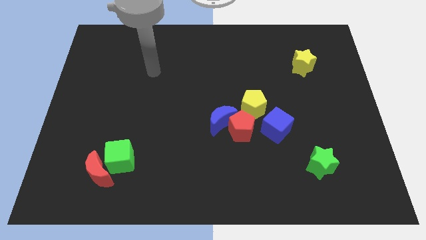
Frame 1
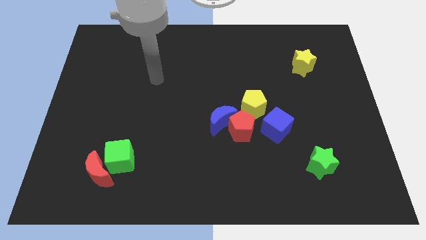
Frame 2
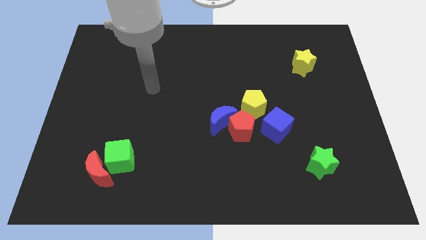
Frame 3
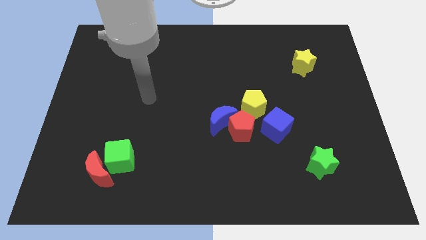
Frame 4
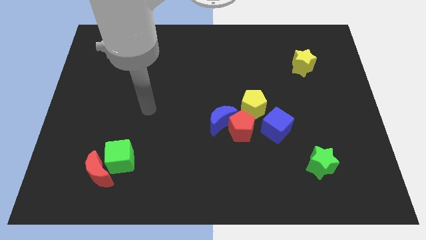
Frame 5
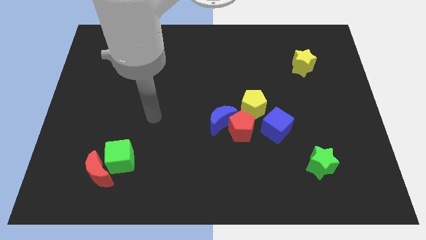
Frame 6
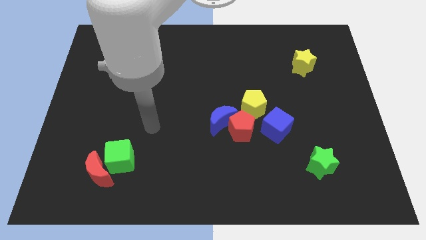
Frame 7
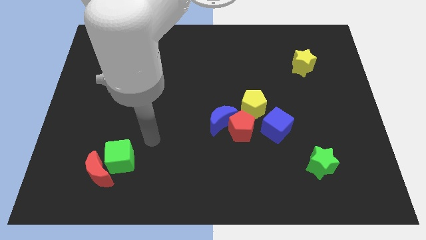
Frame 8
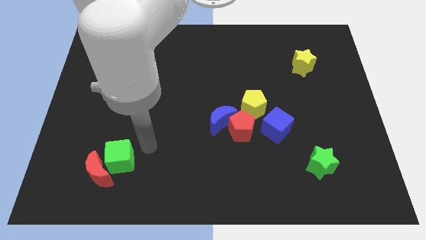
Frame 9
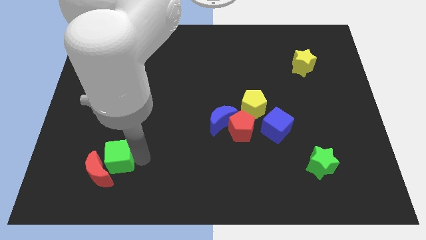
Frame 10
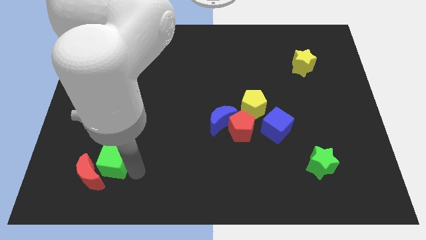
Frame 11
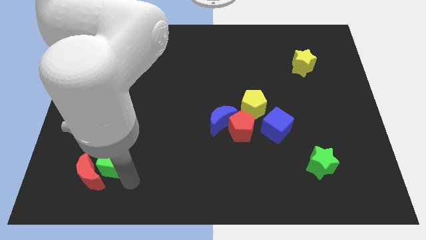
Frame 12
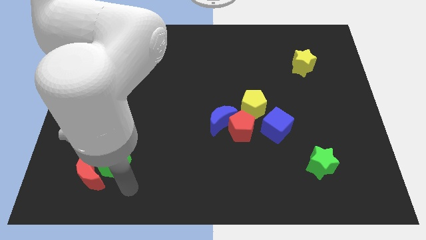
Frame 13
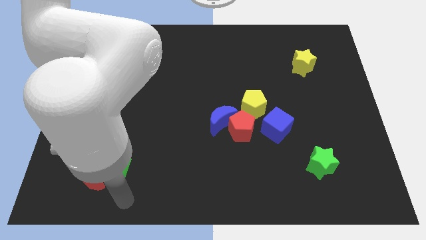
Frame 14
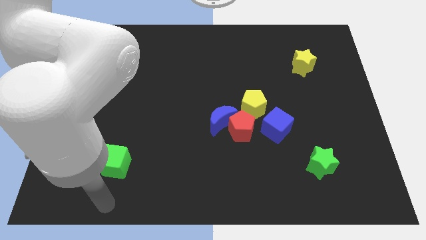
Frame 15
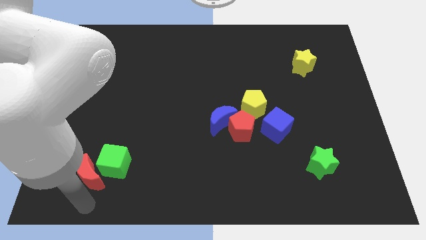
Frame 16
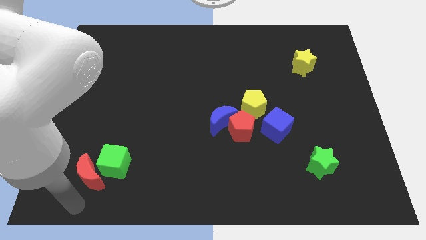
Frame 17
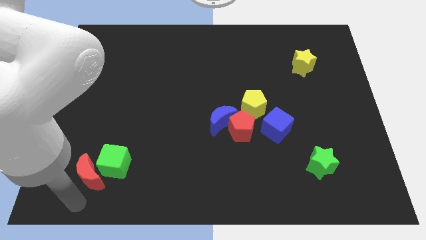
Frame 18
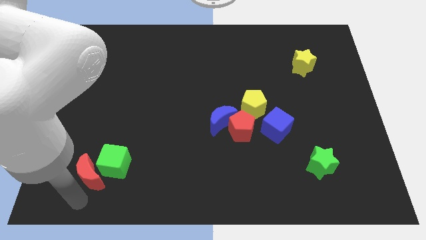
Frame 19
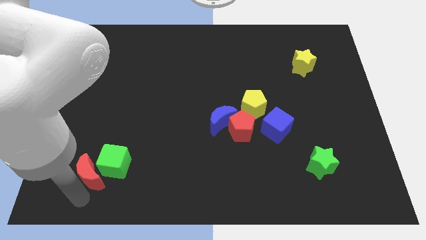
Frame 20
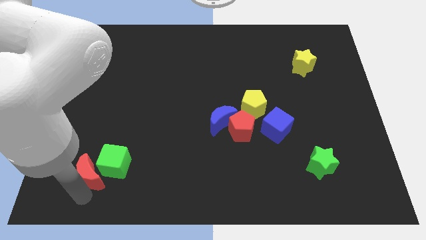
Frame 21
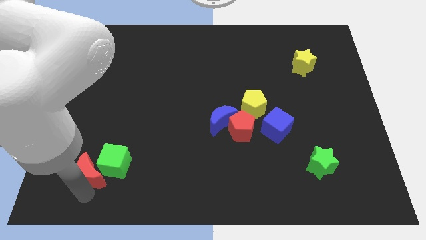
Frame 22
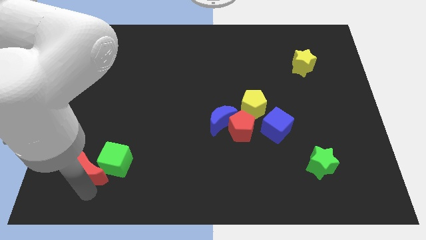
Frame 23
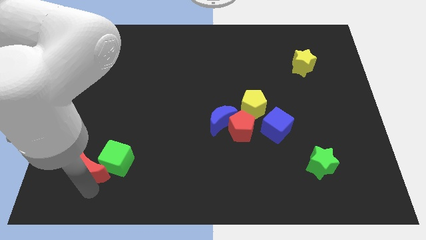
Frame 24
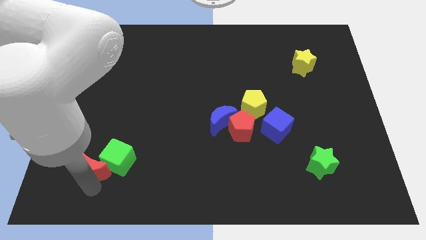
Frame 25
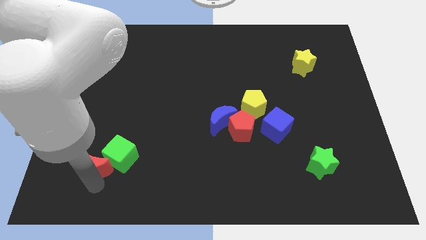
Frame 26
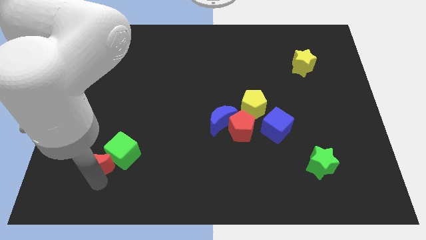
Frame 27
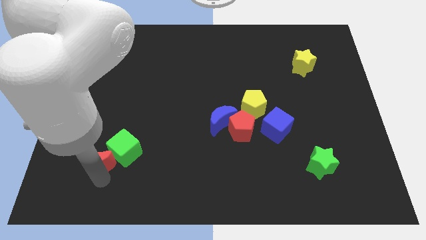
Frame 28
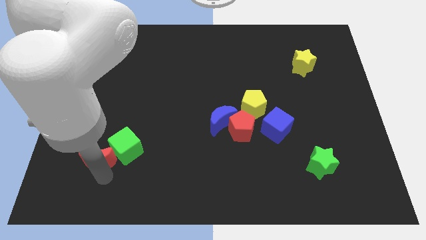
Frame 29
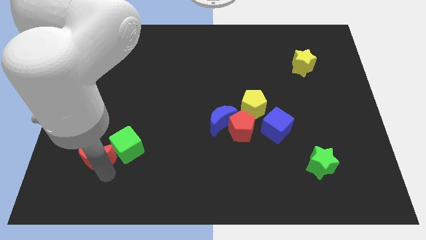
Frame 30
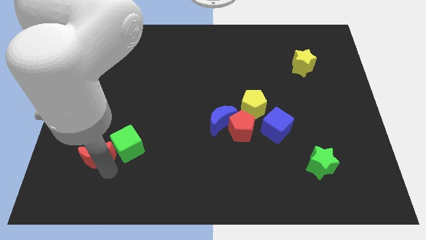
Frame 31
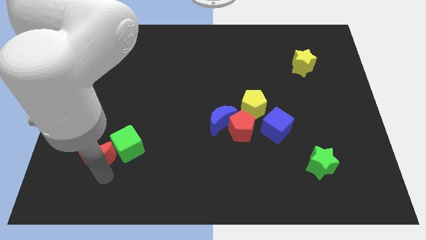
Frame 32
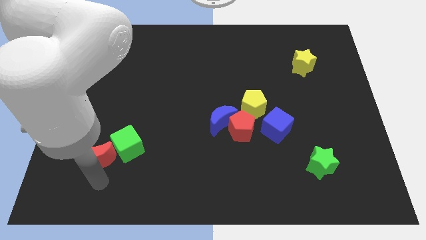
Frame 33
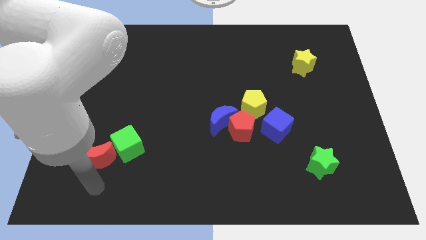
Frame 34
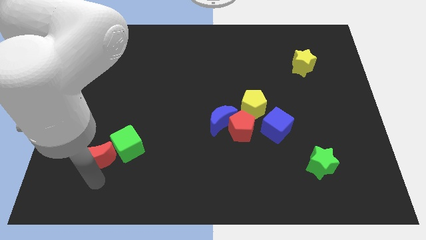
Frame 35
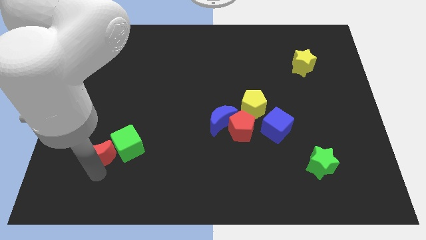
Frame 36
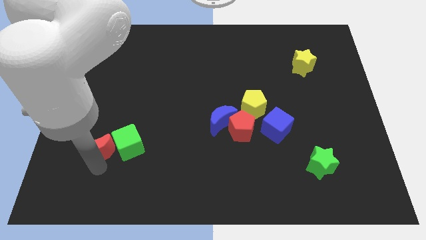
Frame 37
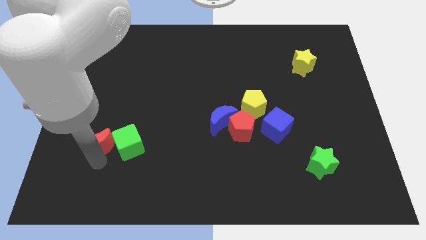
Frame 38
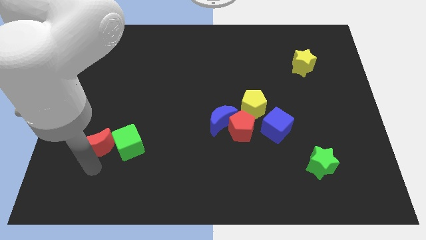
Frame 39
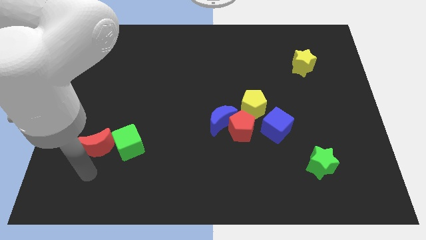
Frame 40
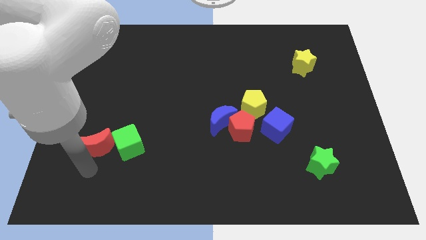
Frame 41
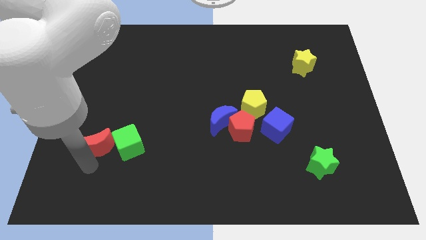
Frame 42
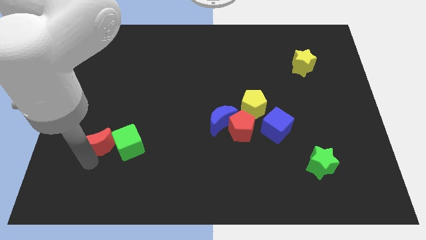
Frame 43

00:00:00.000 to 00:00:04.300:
slightly move the red moon up

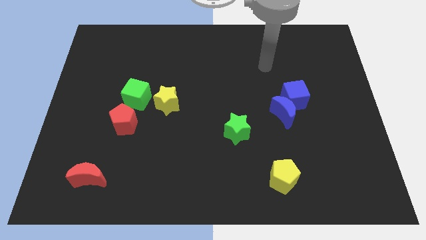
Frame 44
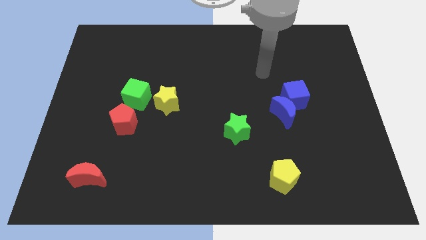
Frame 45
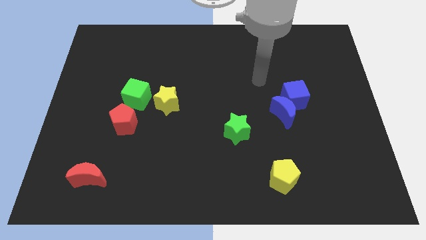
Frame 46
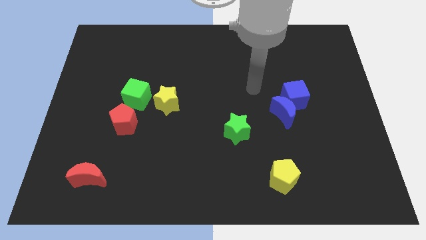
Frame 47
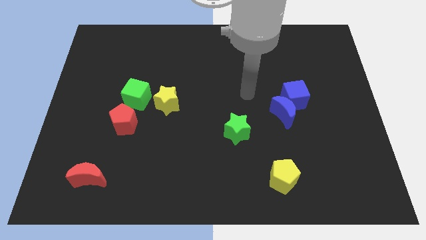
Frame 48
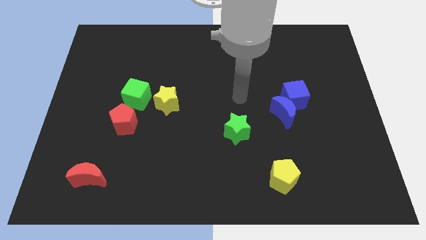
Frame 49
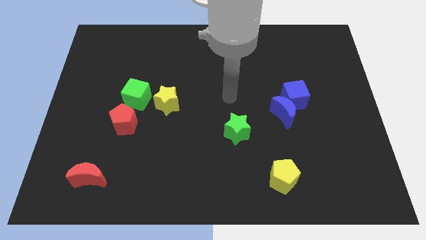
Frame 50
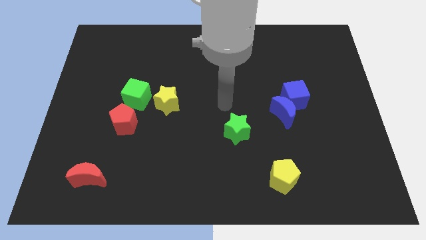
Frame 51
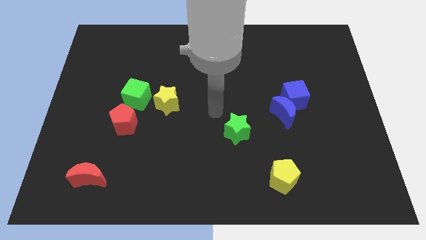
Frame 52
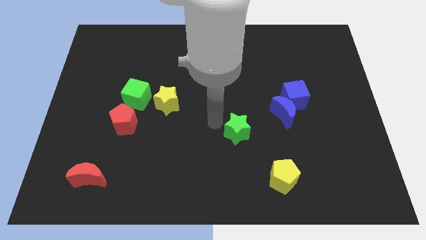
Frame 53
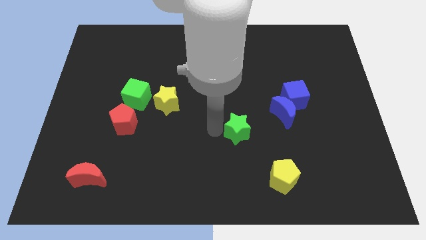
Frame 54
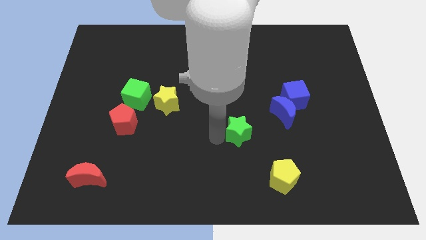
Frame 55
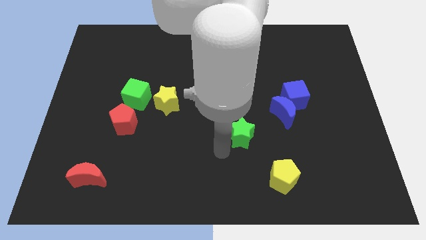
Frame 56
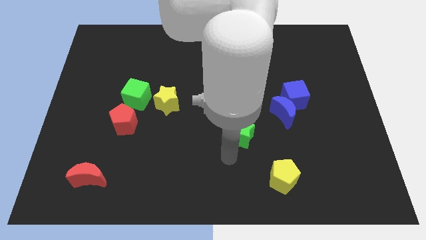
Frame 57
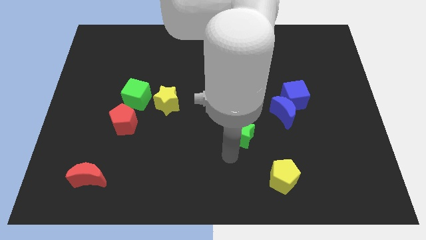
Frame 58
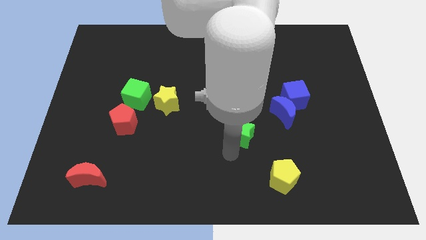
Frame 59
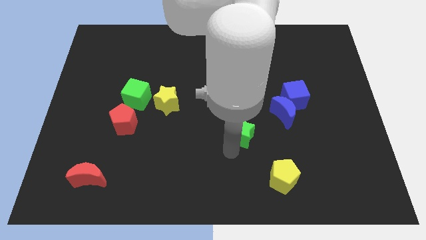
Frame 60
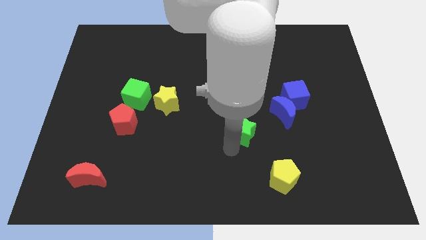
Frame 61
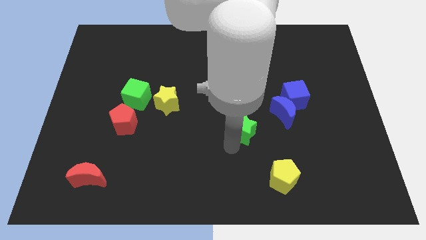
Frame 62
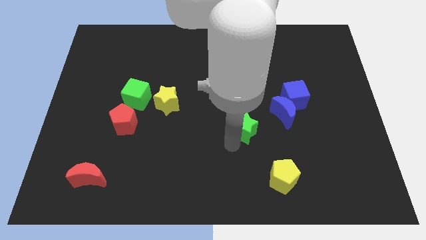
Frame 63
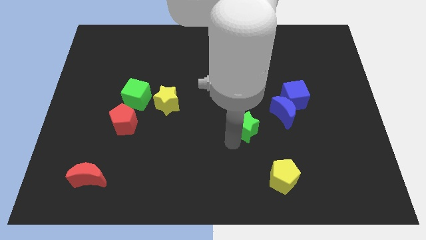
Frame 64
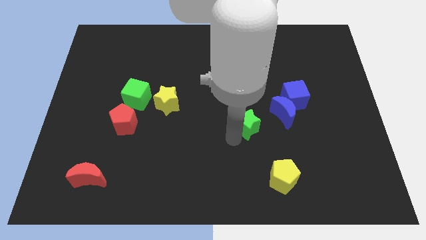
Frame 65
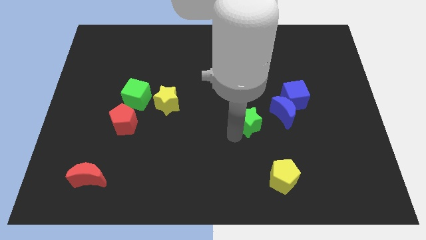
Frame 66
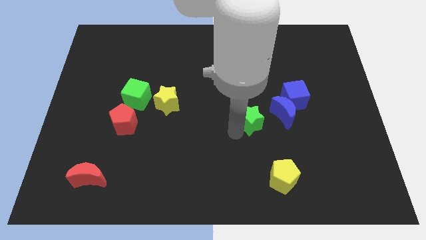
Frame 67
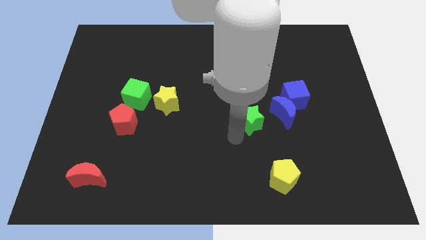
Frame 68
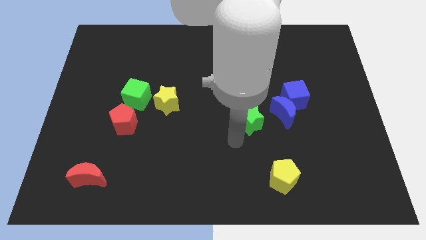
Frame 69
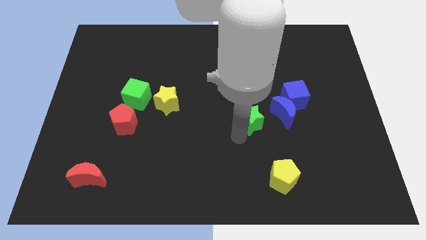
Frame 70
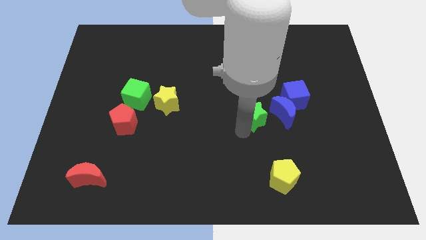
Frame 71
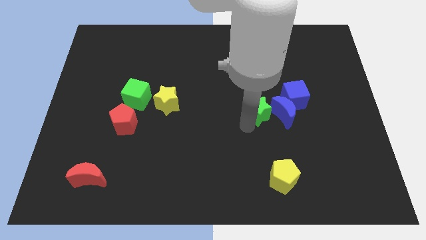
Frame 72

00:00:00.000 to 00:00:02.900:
push the green star somewhat diagonally upwards and to the right

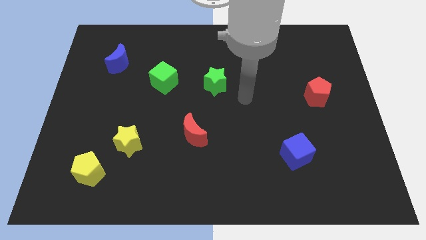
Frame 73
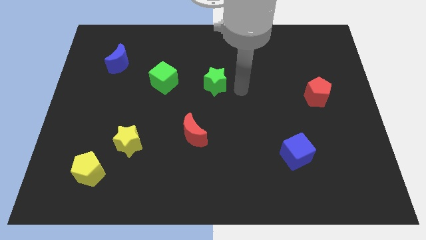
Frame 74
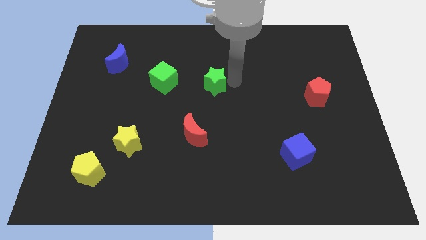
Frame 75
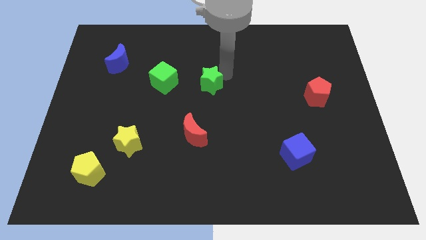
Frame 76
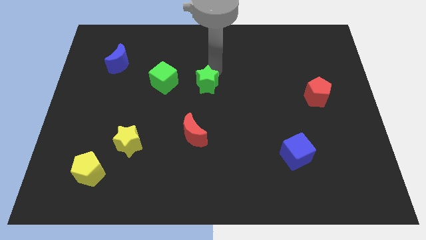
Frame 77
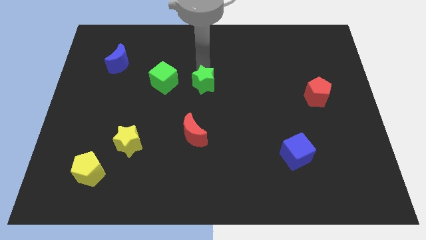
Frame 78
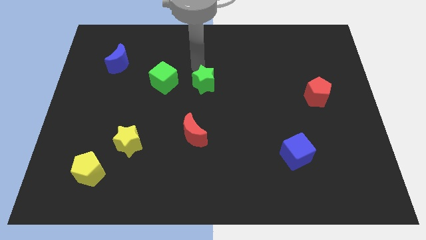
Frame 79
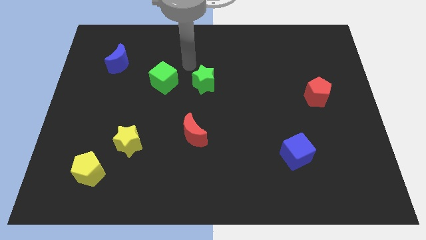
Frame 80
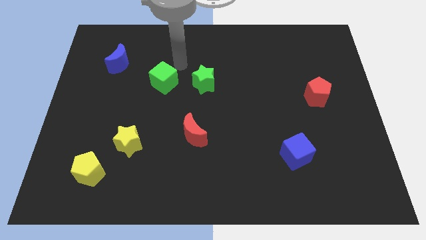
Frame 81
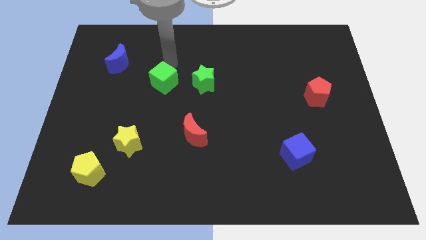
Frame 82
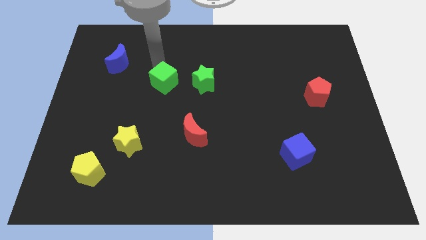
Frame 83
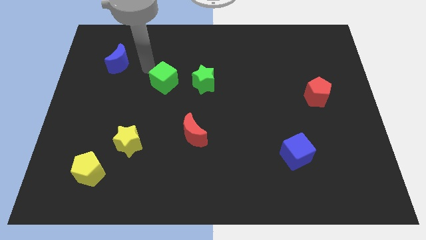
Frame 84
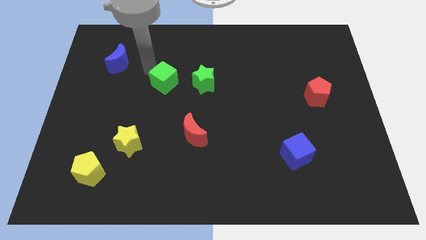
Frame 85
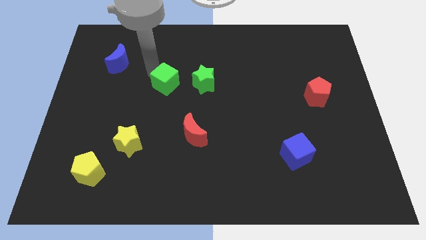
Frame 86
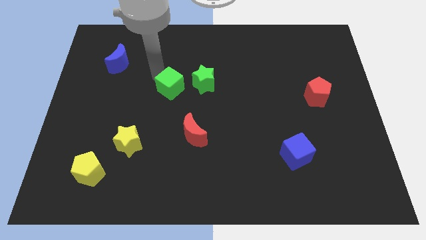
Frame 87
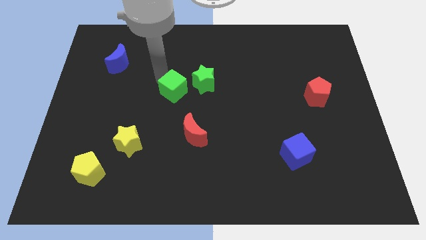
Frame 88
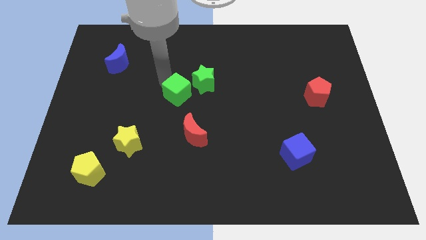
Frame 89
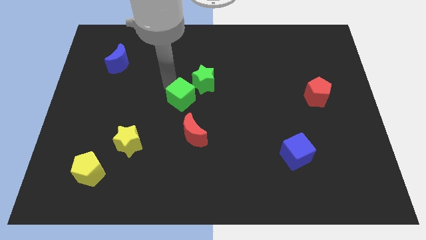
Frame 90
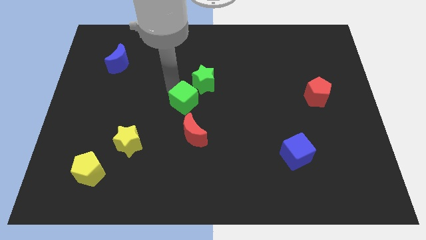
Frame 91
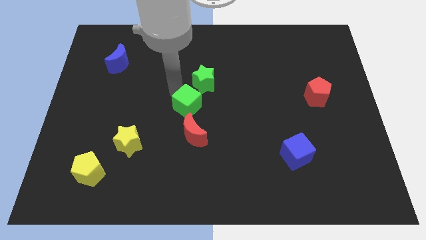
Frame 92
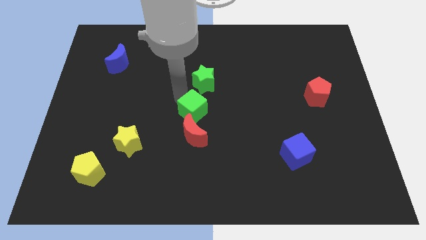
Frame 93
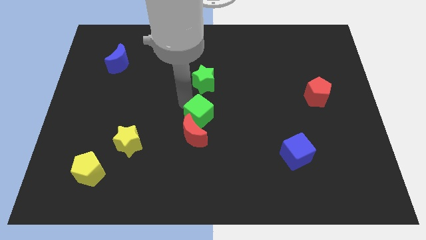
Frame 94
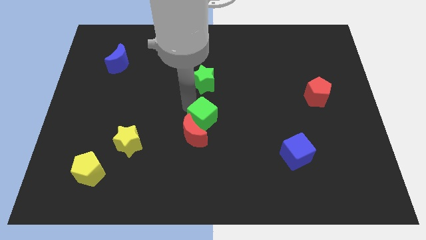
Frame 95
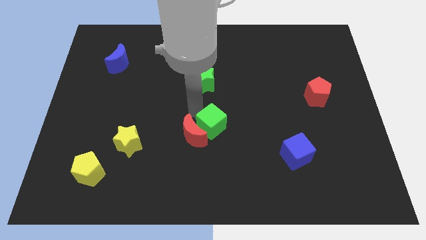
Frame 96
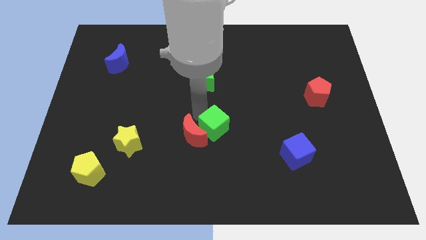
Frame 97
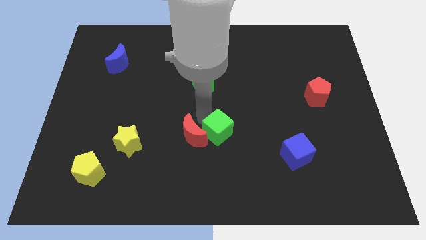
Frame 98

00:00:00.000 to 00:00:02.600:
move the green cube down and then right
